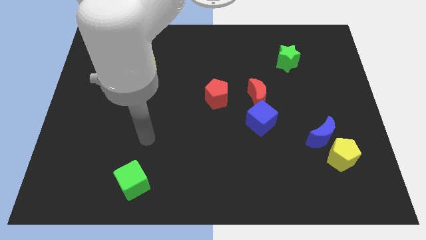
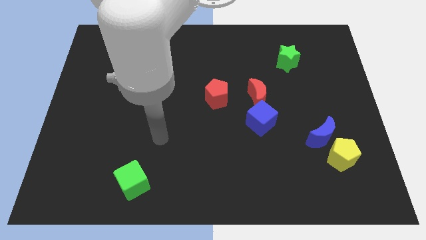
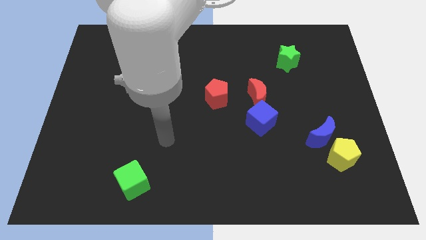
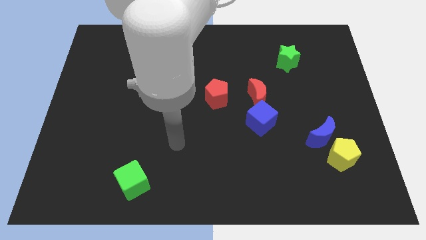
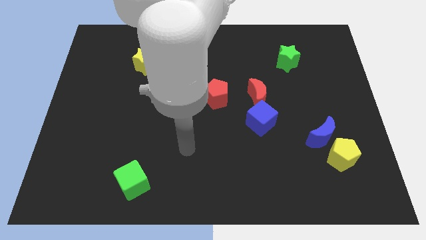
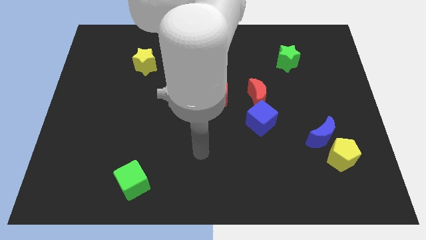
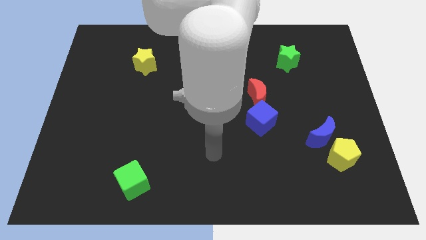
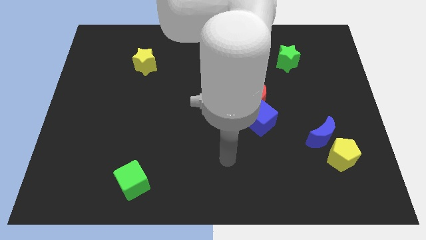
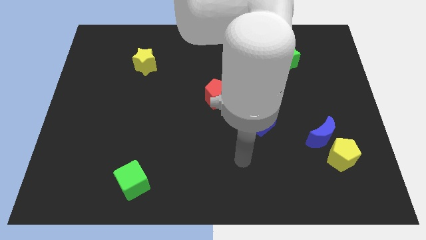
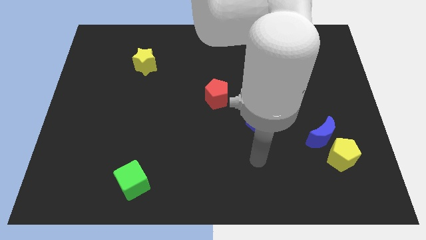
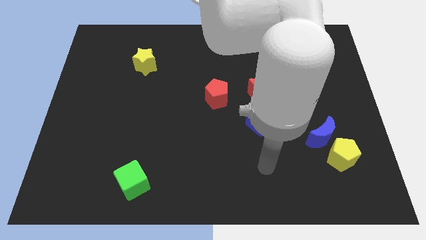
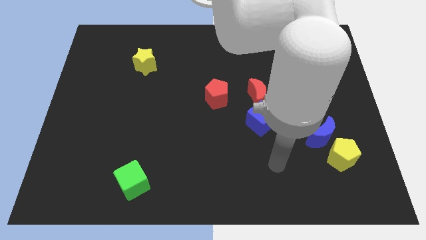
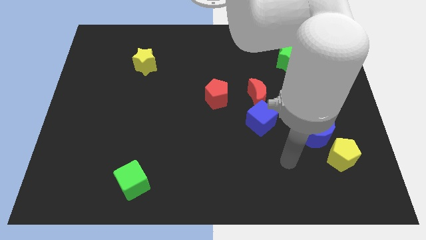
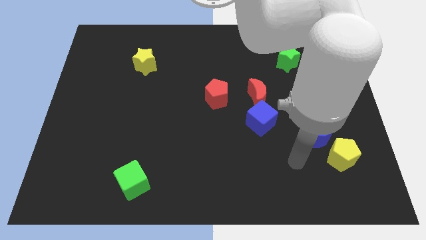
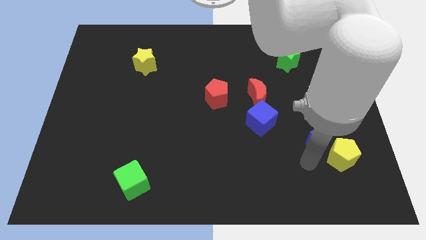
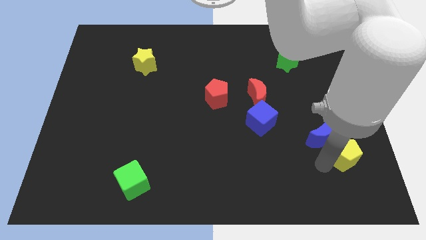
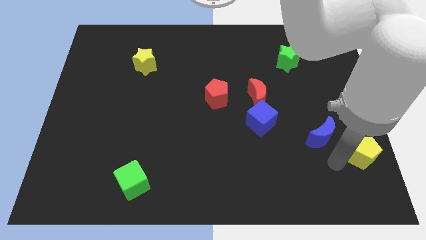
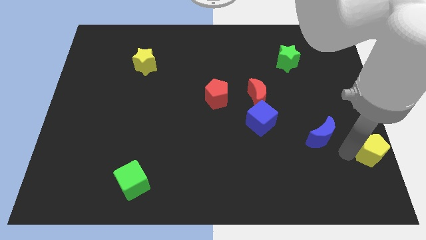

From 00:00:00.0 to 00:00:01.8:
move the blue moon away from the yellow pentagon

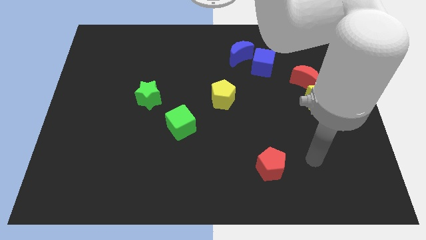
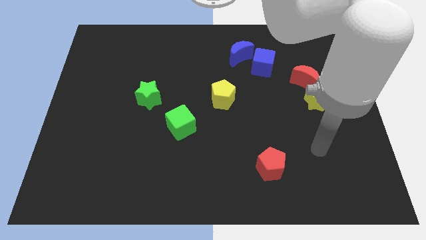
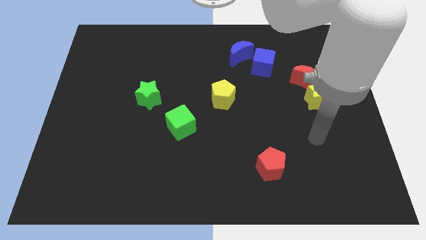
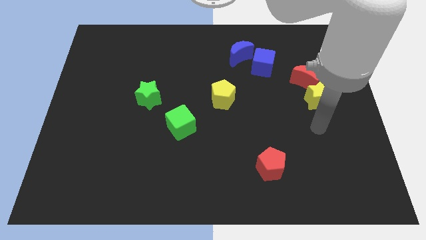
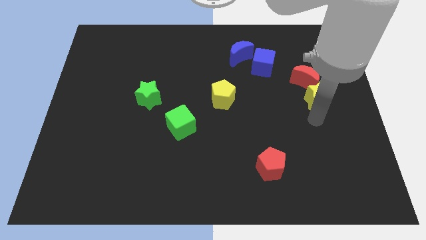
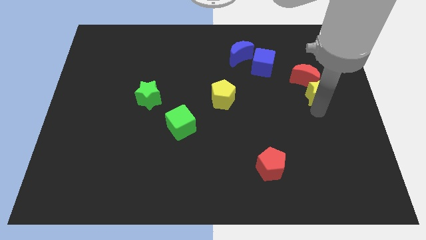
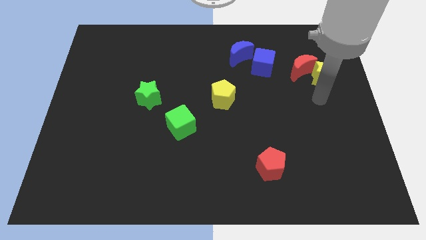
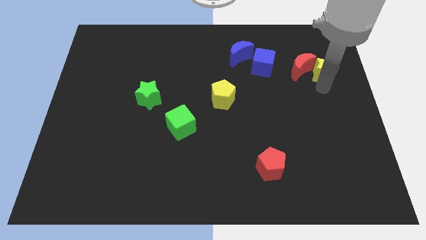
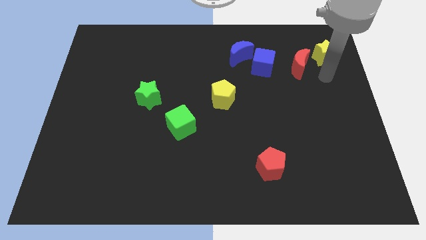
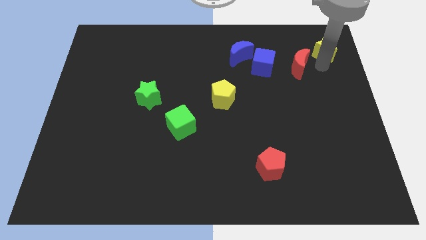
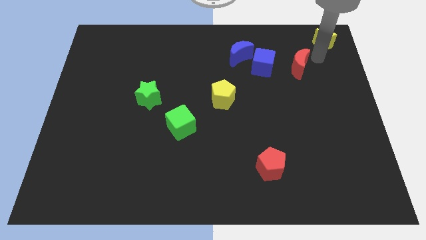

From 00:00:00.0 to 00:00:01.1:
separate the red moon from the yellow star

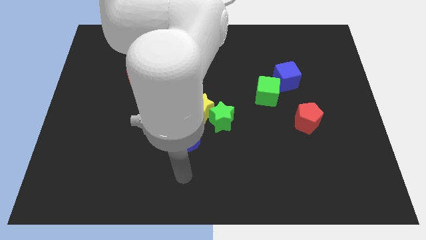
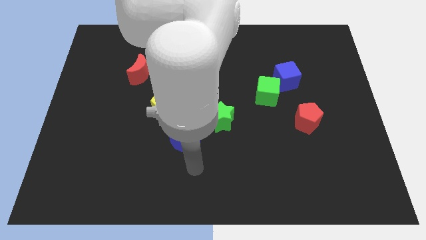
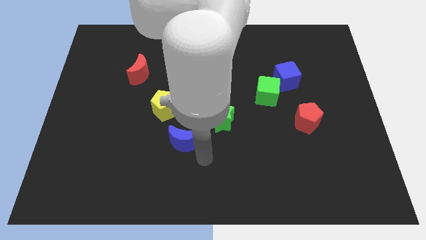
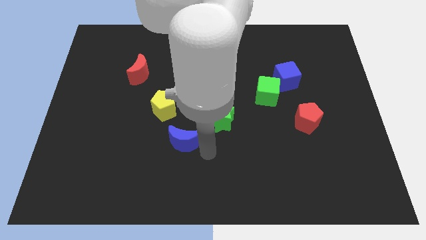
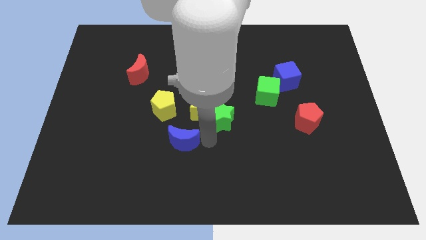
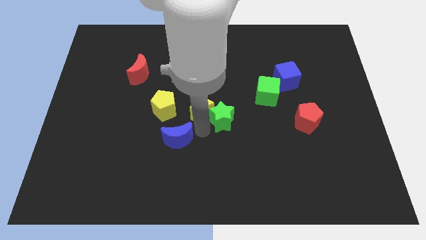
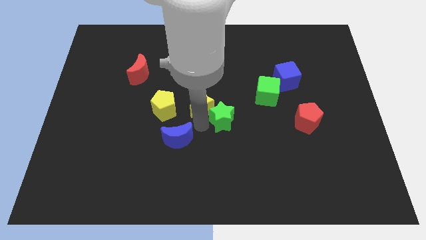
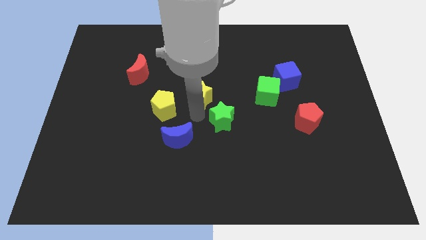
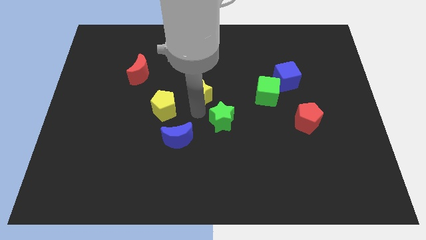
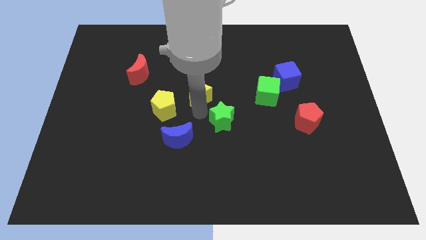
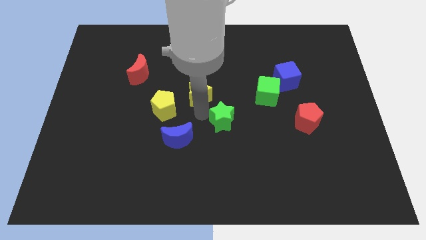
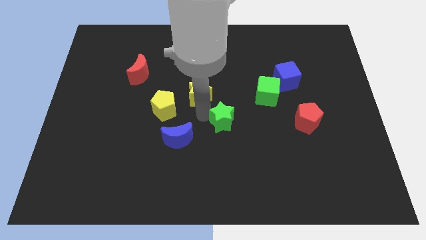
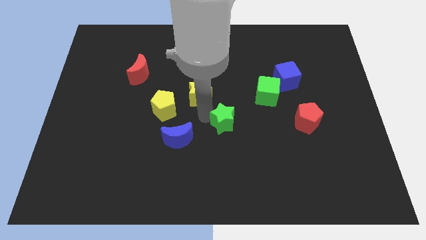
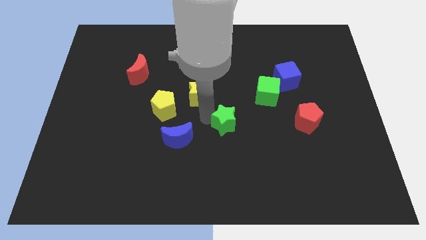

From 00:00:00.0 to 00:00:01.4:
pull the green star apart from the yellow star

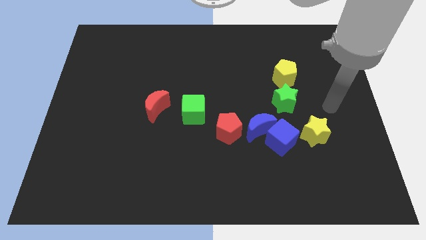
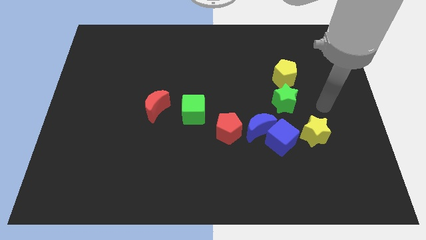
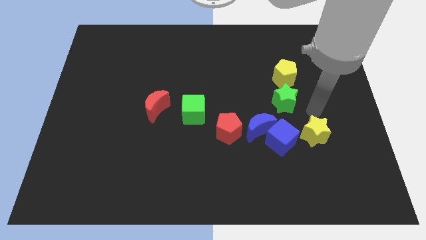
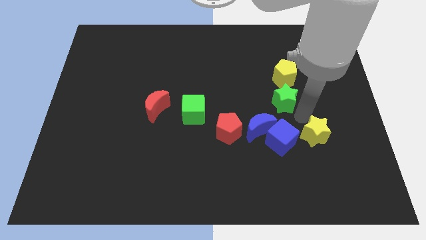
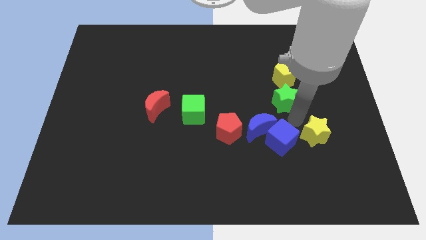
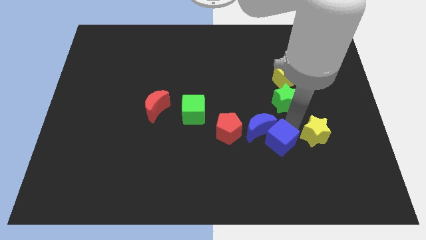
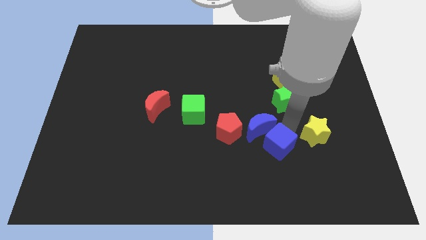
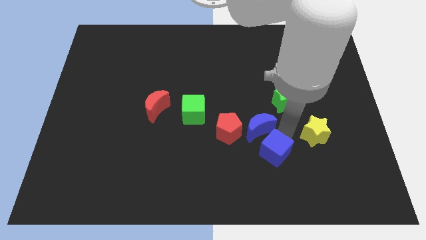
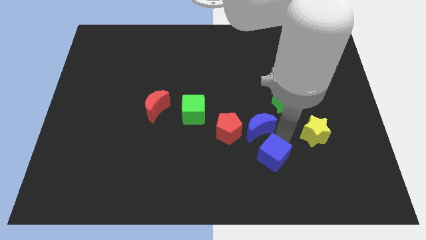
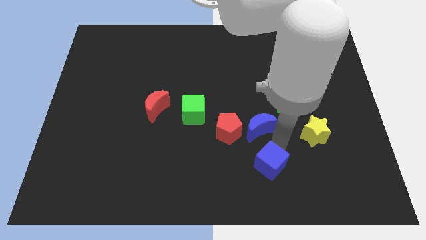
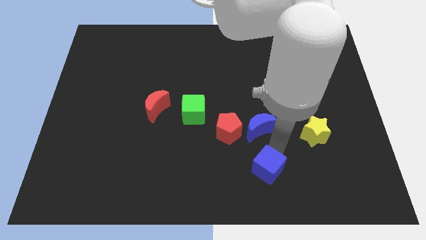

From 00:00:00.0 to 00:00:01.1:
move the blue cube away from the blue moon and yellow star

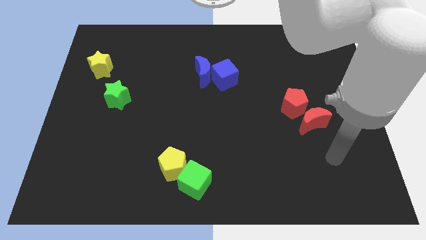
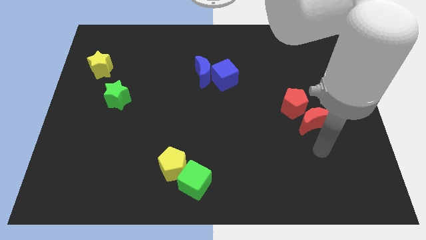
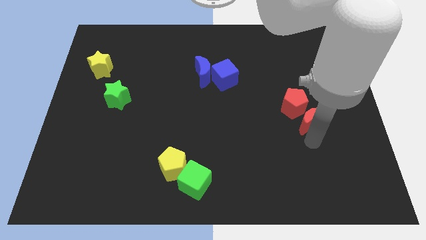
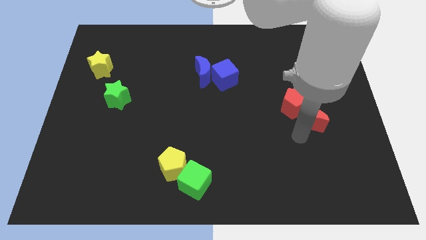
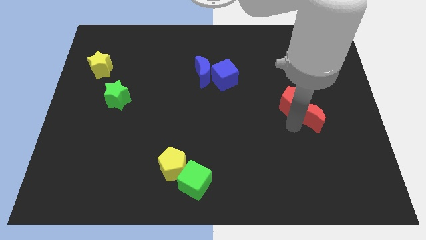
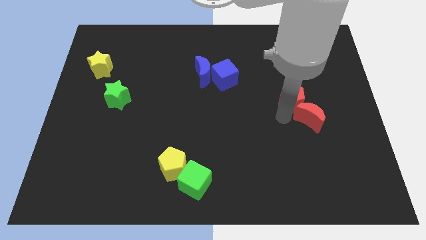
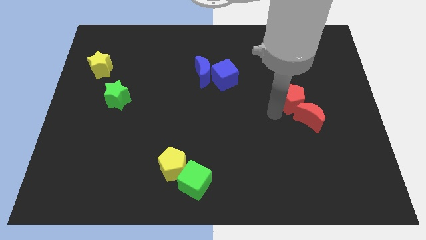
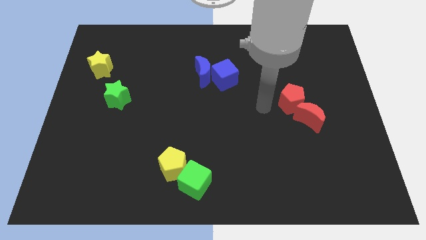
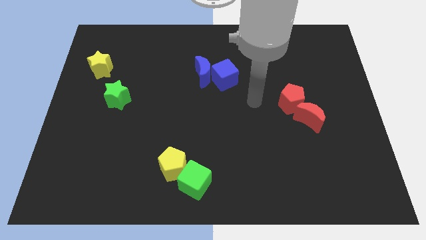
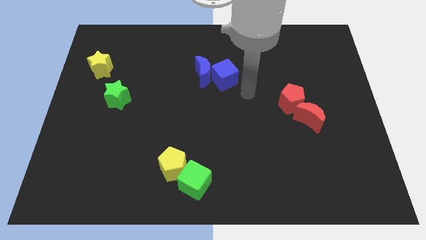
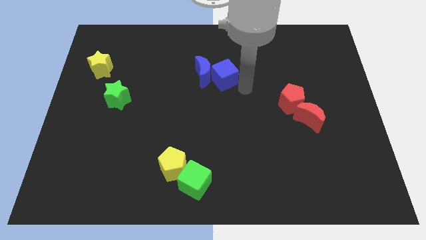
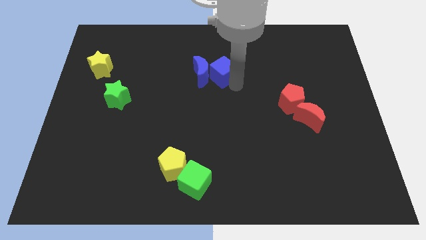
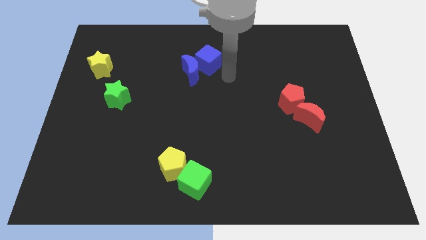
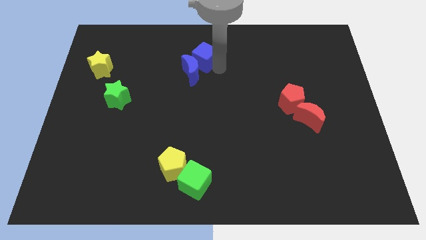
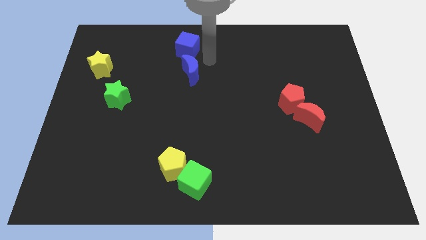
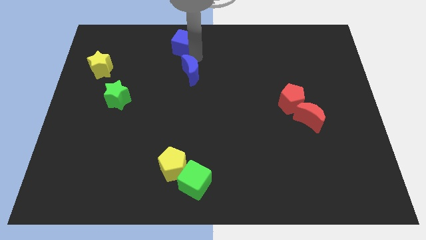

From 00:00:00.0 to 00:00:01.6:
move the blue moon away from the blue cube

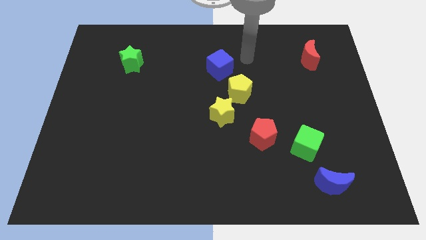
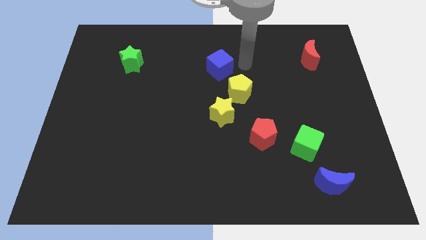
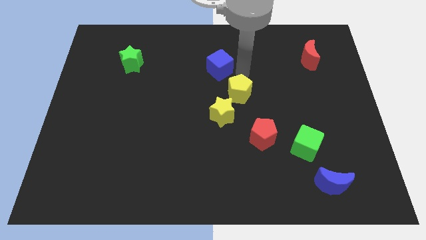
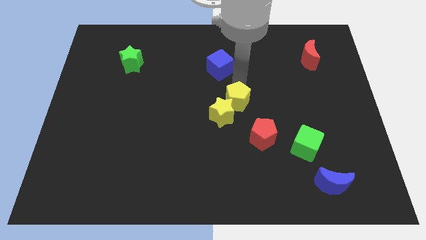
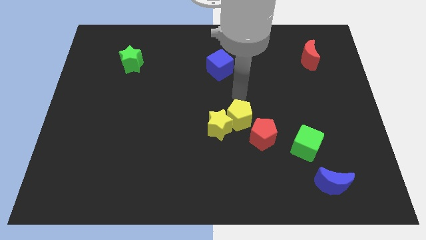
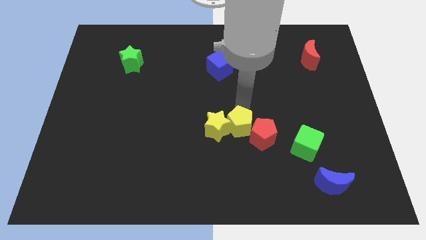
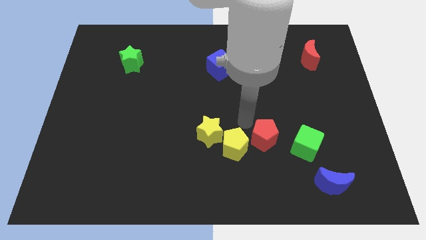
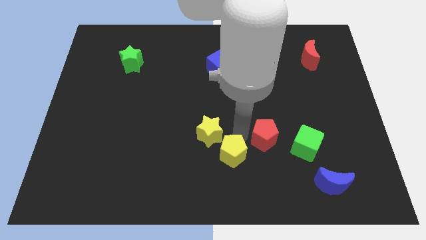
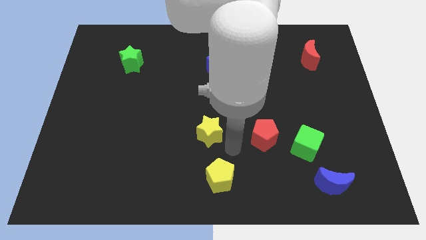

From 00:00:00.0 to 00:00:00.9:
pull the yellow star apart from the yellow pentagon

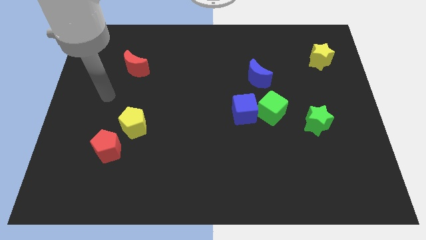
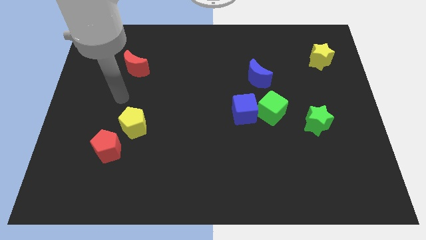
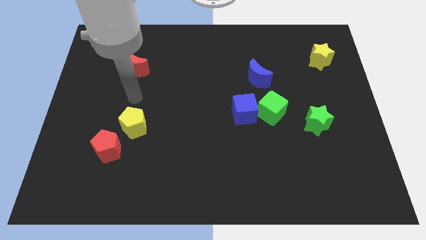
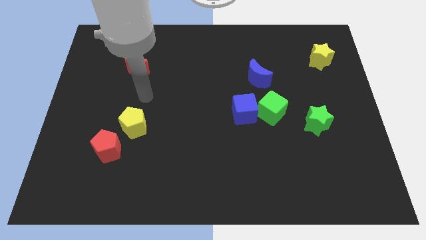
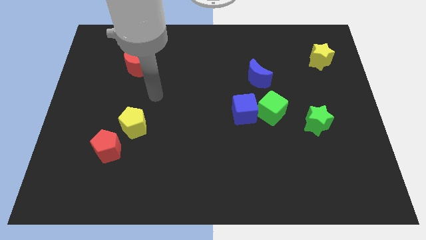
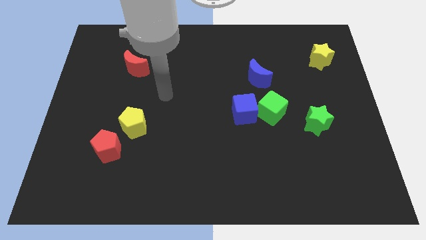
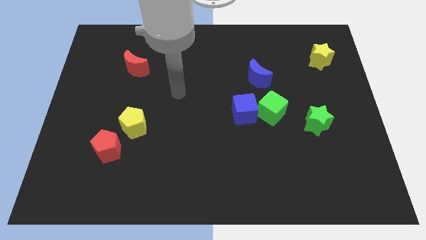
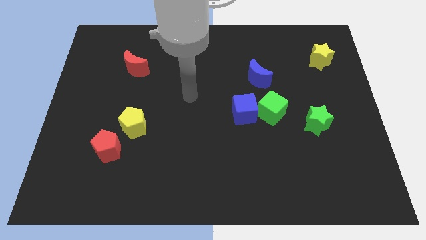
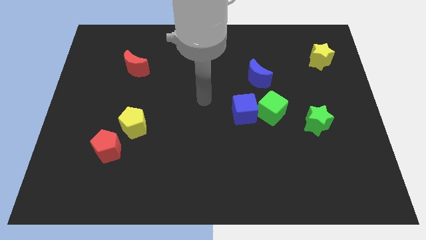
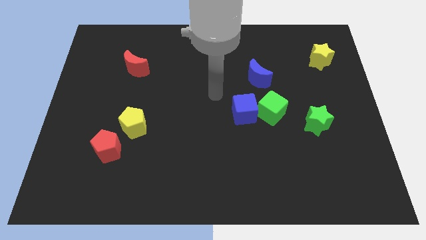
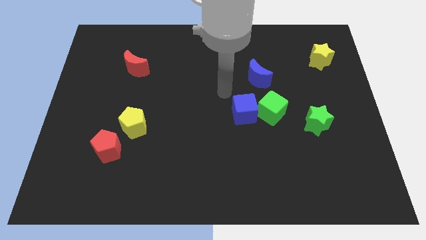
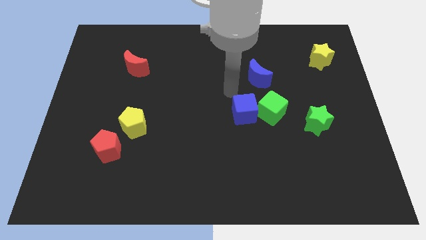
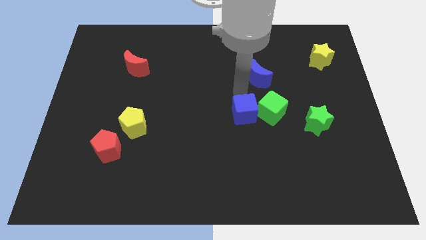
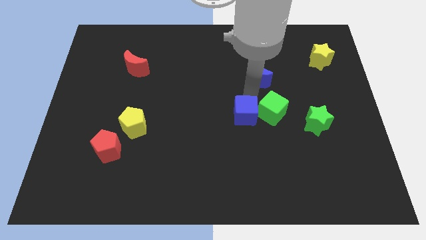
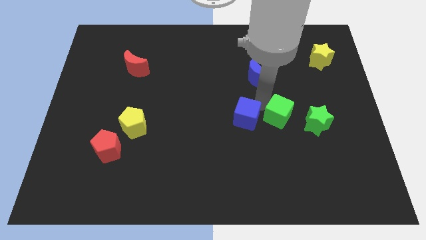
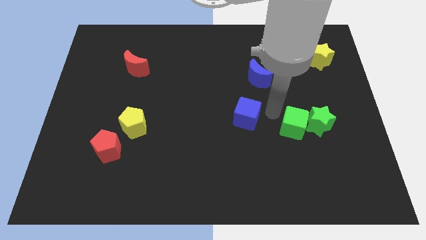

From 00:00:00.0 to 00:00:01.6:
separate the blue cube from the green cube
